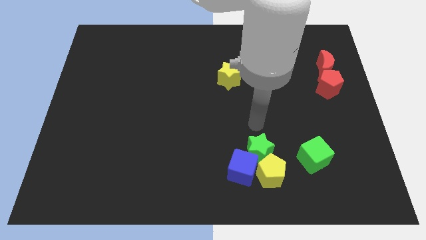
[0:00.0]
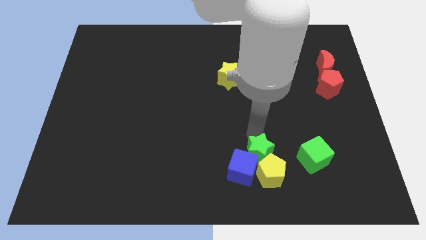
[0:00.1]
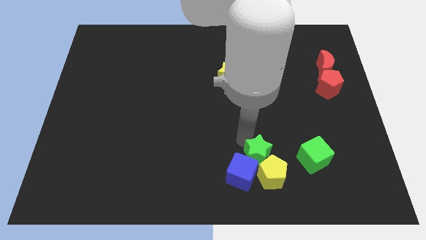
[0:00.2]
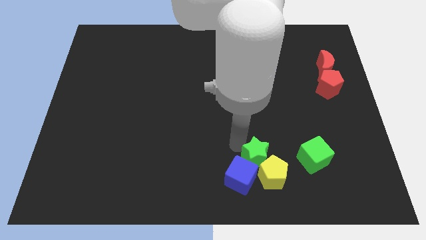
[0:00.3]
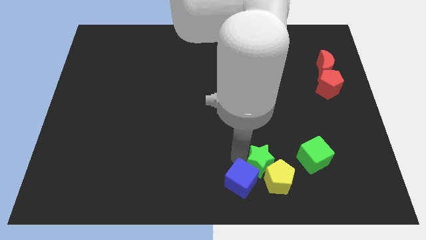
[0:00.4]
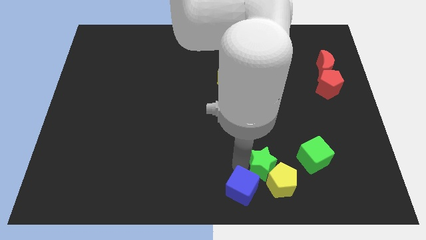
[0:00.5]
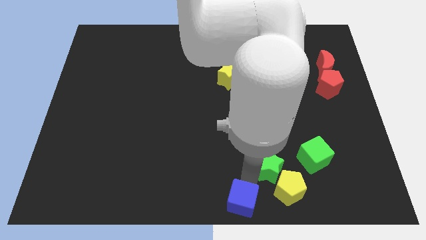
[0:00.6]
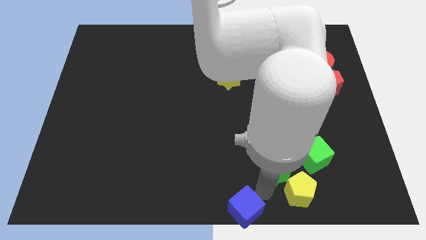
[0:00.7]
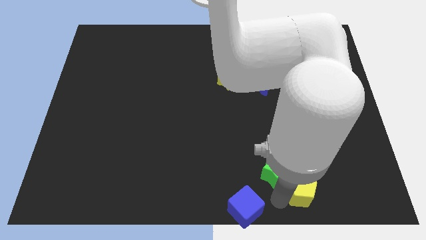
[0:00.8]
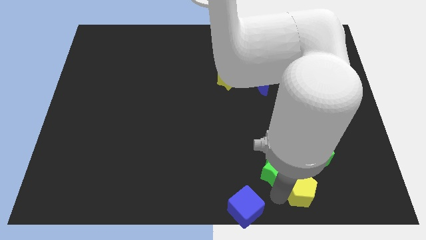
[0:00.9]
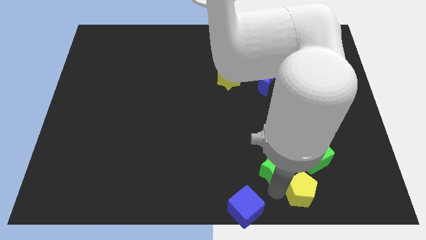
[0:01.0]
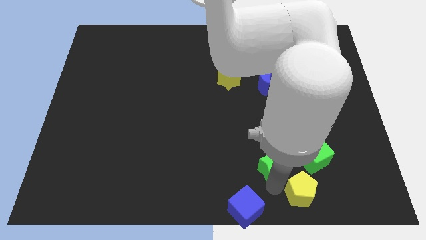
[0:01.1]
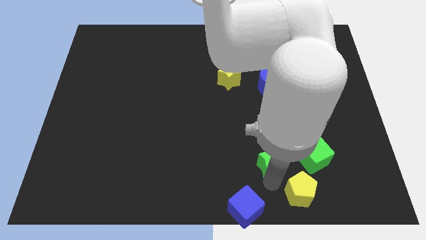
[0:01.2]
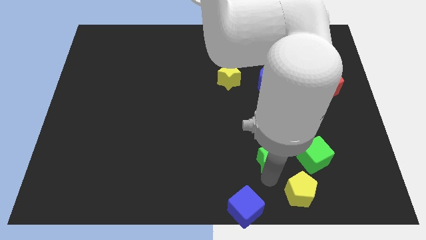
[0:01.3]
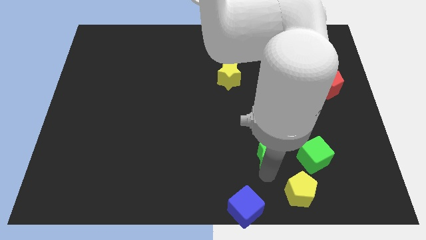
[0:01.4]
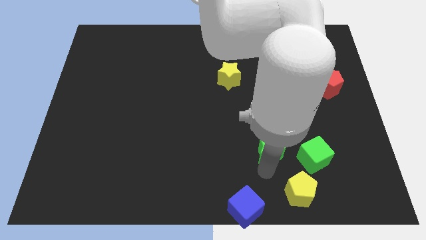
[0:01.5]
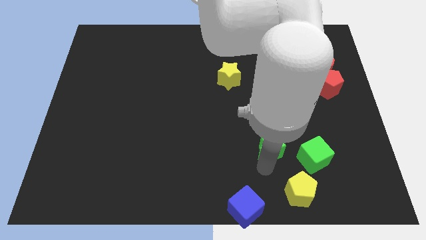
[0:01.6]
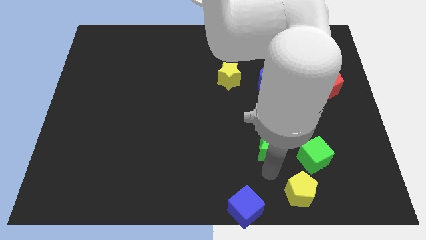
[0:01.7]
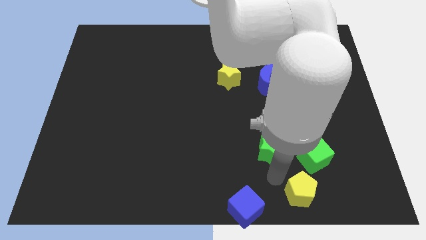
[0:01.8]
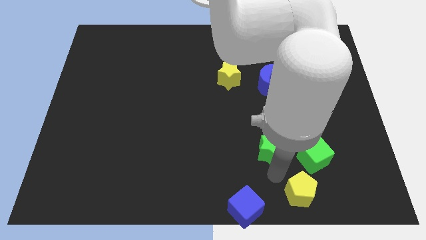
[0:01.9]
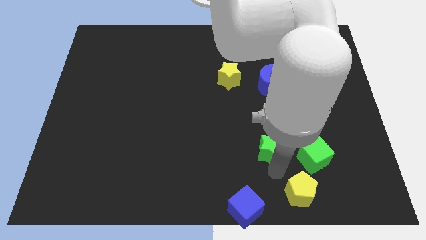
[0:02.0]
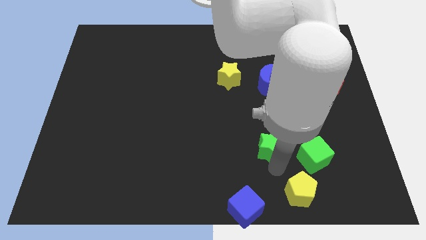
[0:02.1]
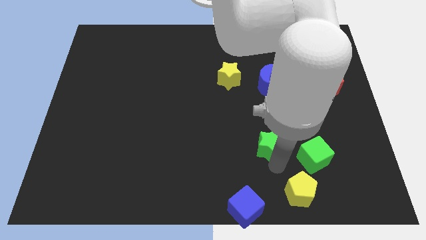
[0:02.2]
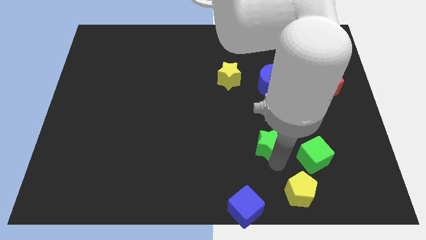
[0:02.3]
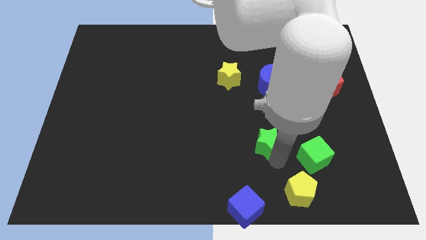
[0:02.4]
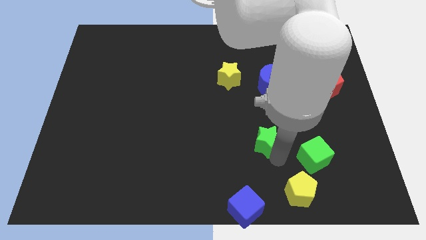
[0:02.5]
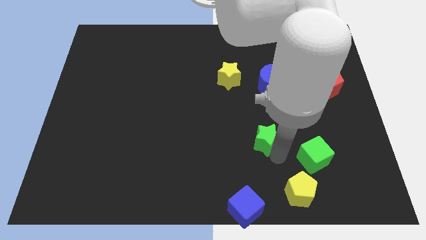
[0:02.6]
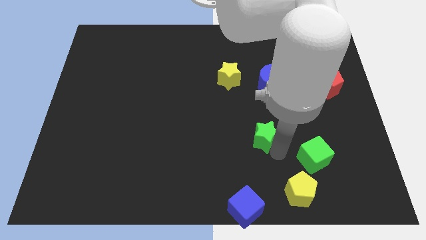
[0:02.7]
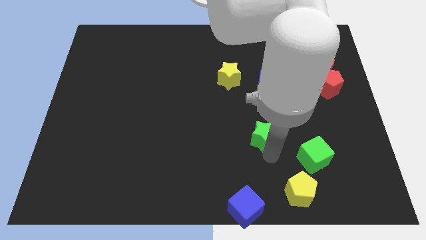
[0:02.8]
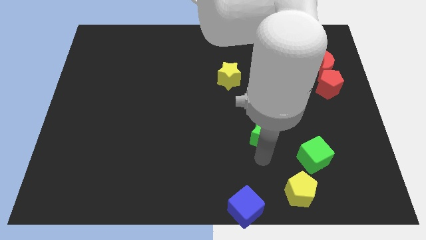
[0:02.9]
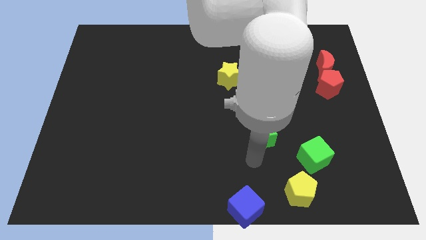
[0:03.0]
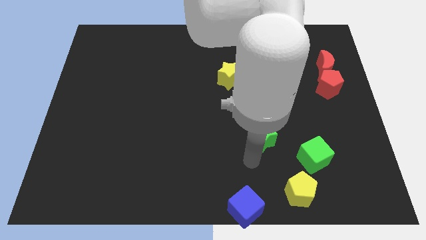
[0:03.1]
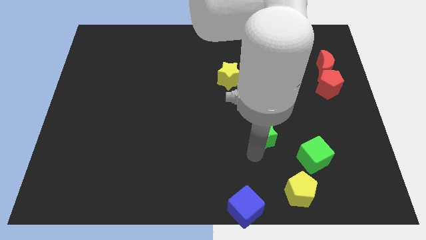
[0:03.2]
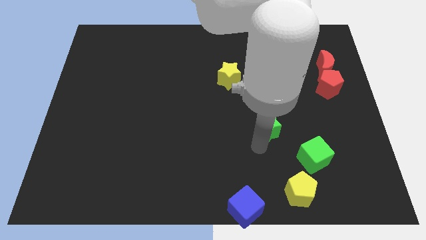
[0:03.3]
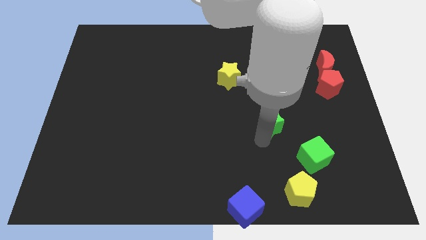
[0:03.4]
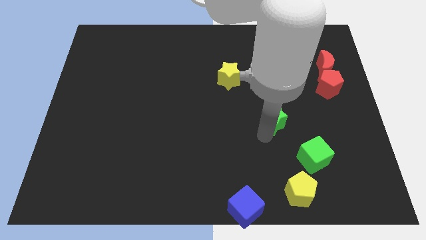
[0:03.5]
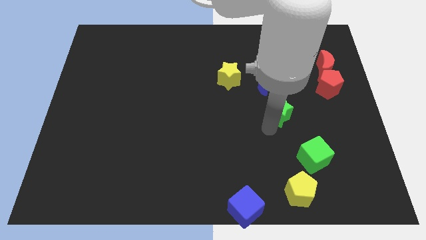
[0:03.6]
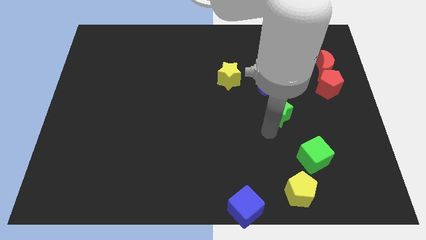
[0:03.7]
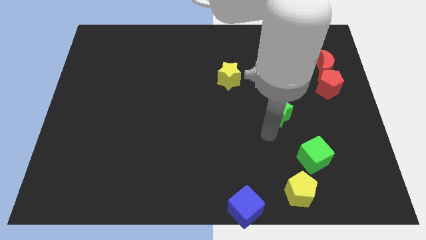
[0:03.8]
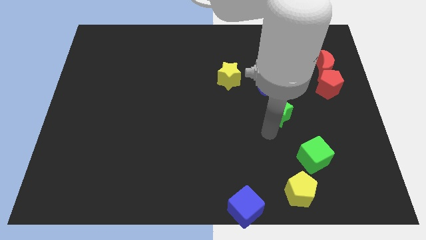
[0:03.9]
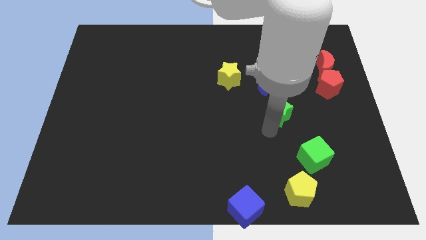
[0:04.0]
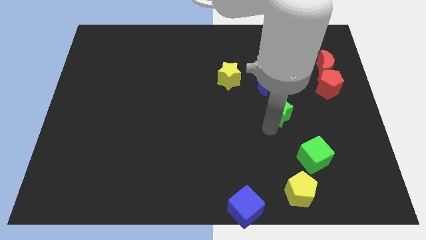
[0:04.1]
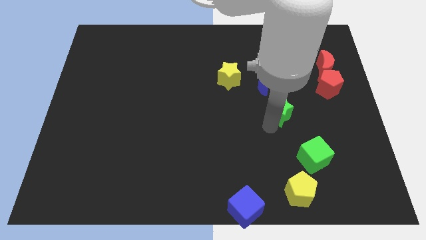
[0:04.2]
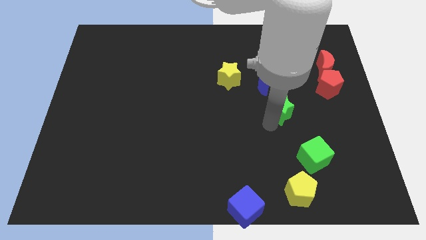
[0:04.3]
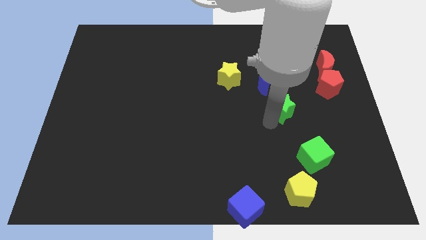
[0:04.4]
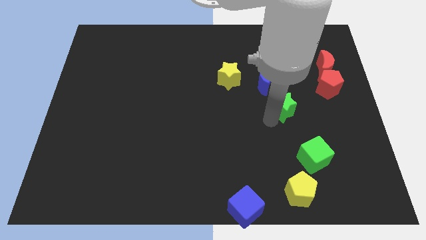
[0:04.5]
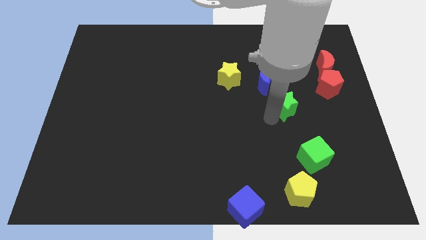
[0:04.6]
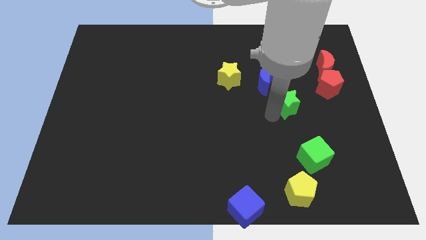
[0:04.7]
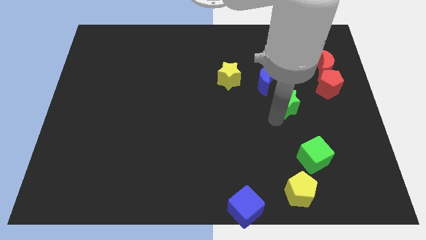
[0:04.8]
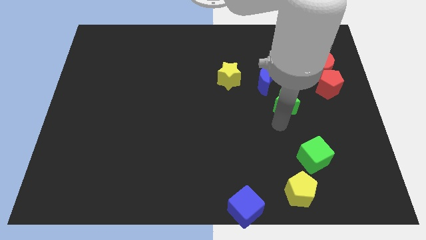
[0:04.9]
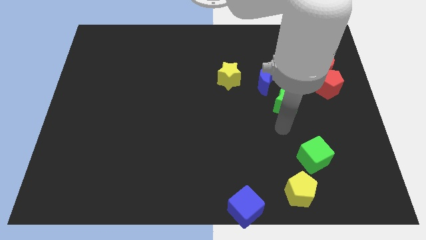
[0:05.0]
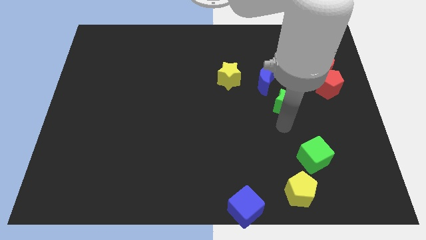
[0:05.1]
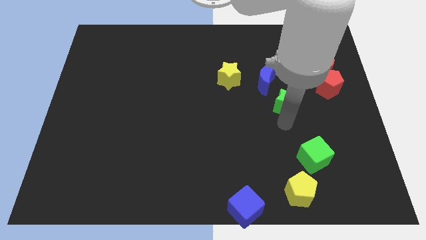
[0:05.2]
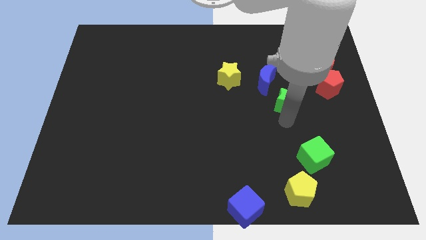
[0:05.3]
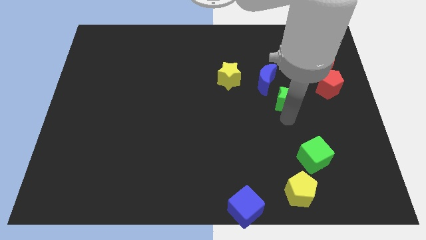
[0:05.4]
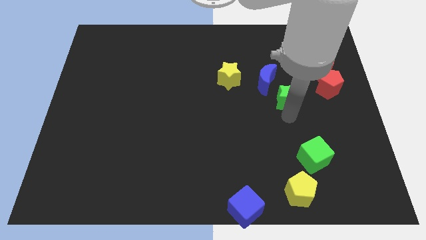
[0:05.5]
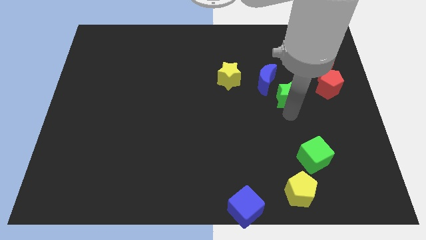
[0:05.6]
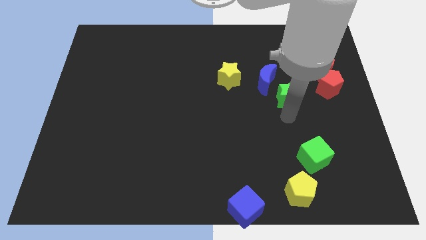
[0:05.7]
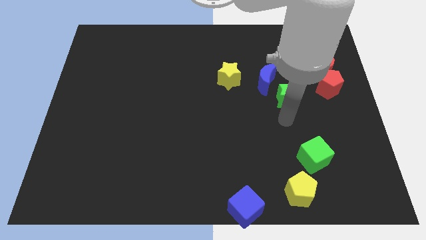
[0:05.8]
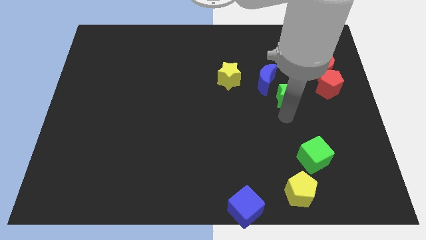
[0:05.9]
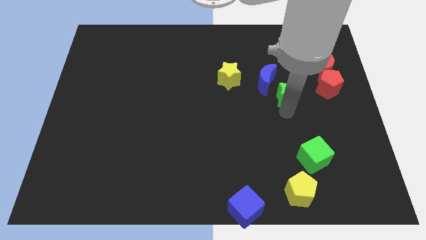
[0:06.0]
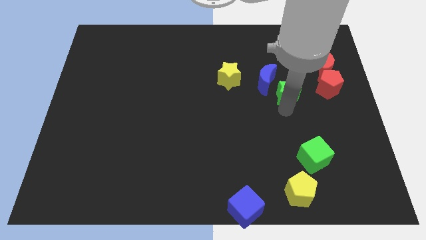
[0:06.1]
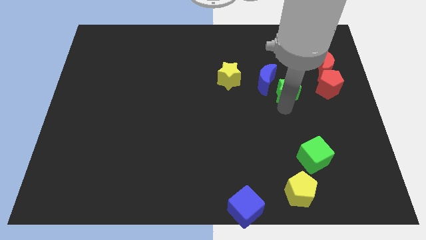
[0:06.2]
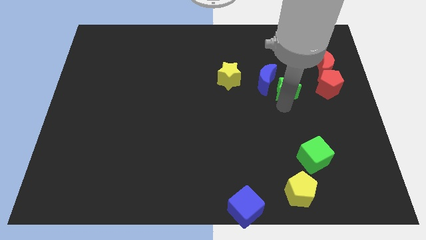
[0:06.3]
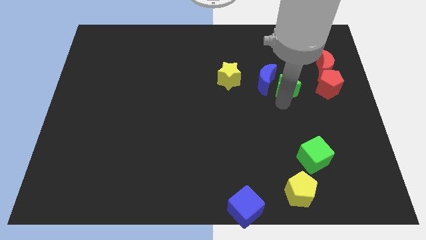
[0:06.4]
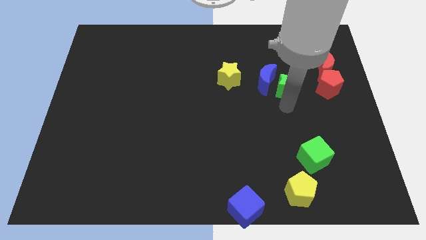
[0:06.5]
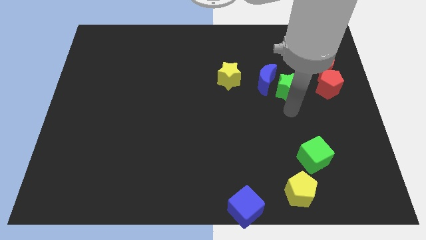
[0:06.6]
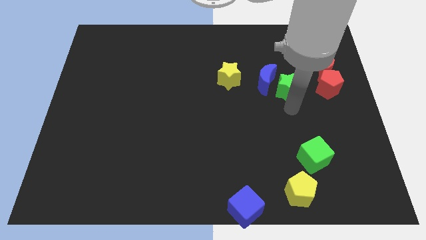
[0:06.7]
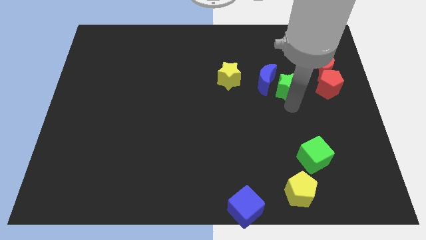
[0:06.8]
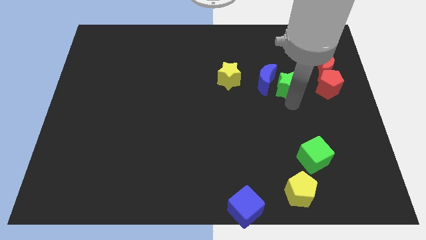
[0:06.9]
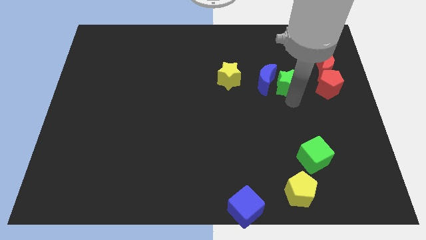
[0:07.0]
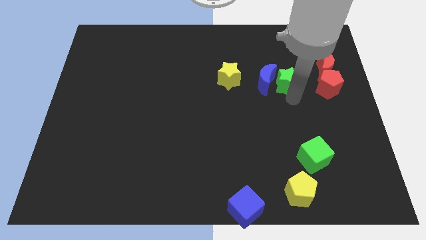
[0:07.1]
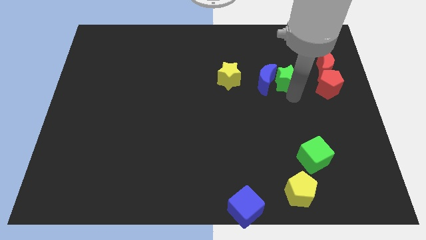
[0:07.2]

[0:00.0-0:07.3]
push the green star to the left of the red moon
